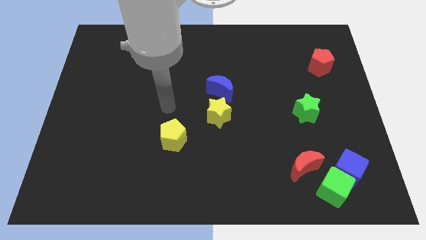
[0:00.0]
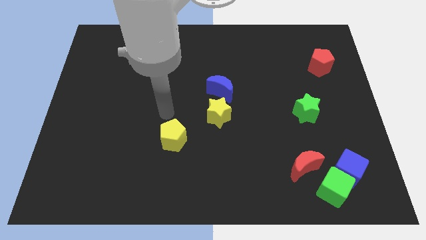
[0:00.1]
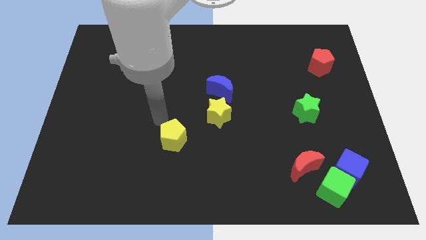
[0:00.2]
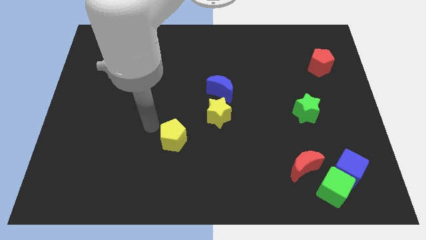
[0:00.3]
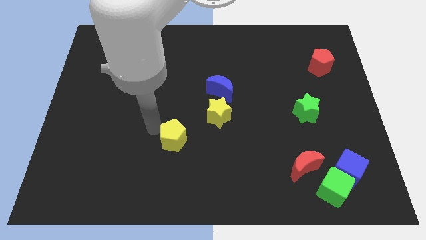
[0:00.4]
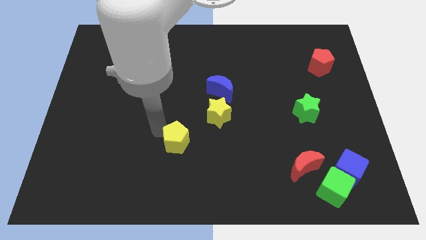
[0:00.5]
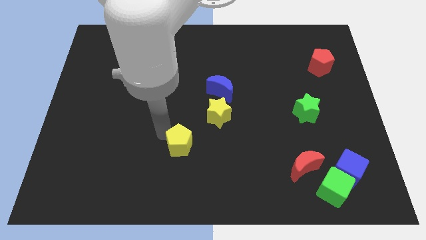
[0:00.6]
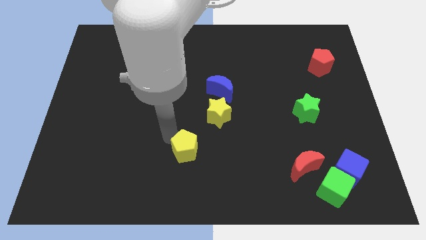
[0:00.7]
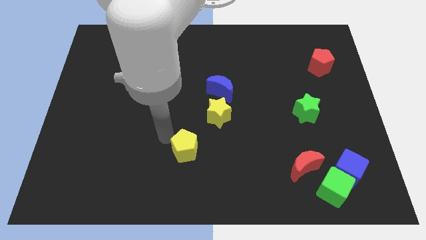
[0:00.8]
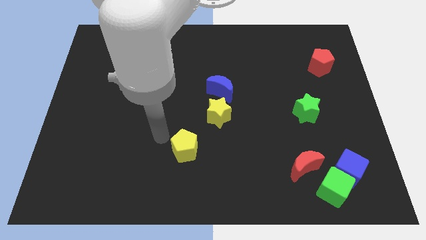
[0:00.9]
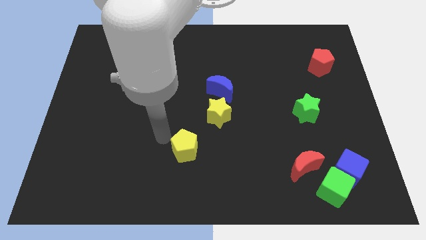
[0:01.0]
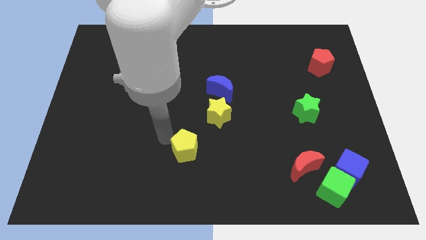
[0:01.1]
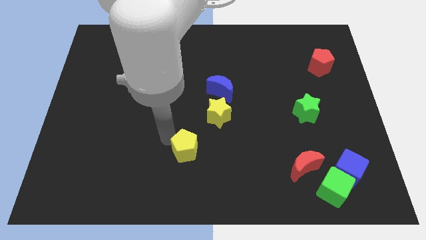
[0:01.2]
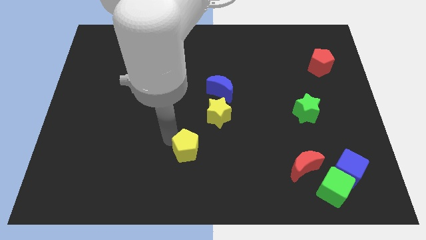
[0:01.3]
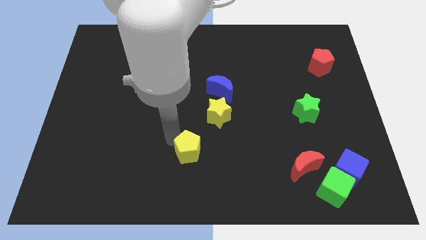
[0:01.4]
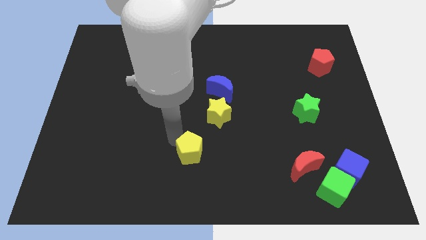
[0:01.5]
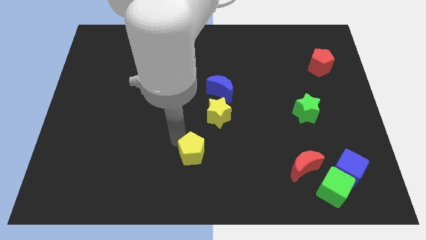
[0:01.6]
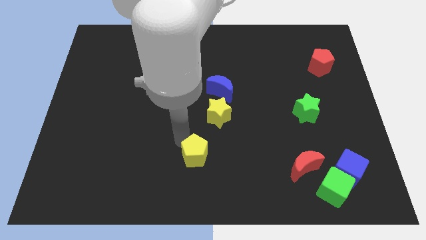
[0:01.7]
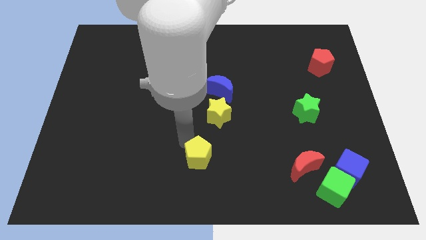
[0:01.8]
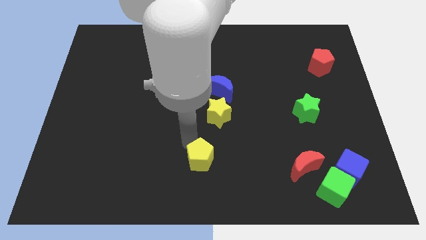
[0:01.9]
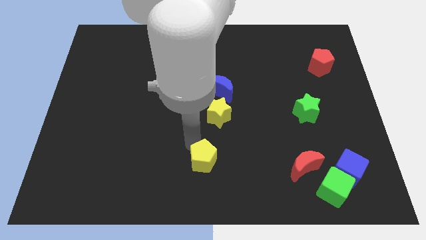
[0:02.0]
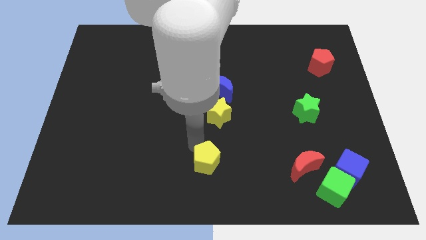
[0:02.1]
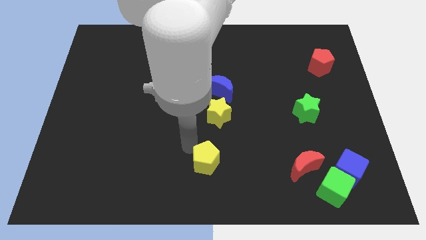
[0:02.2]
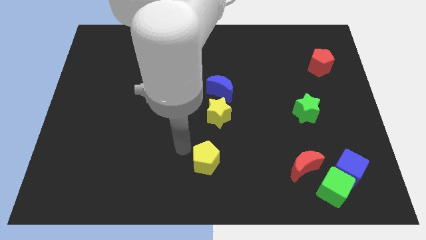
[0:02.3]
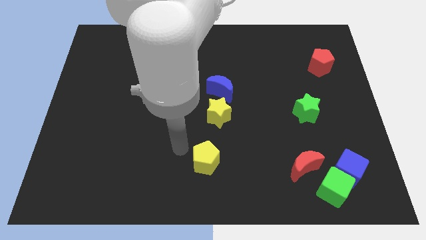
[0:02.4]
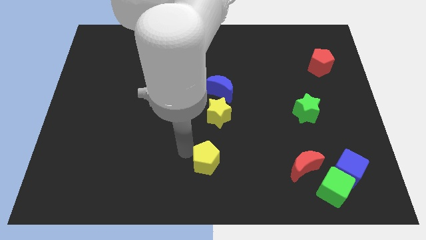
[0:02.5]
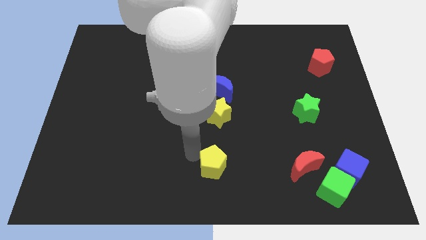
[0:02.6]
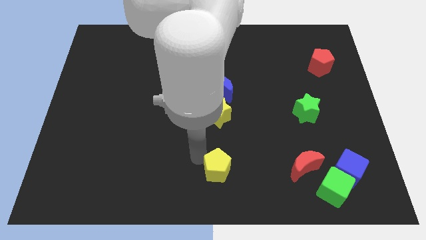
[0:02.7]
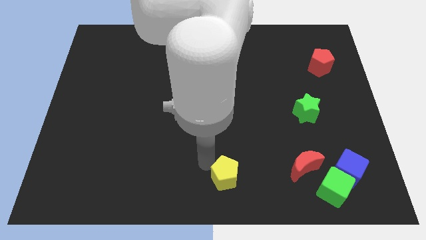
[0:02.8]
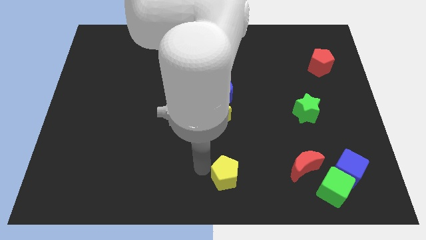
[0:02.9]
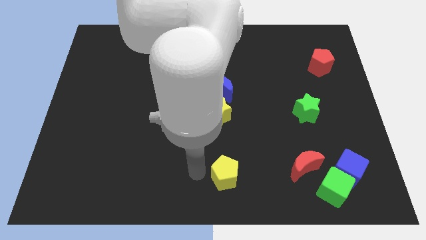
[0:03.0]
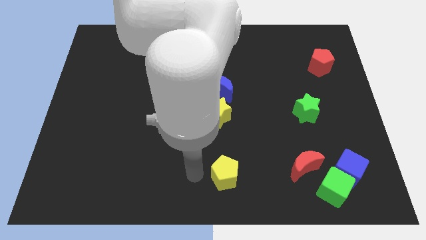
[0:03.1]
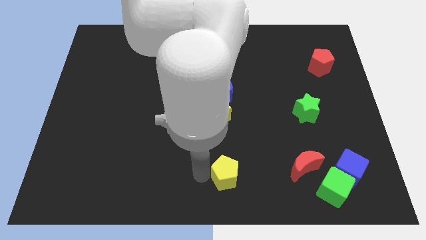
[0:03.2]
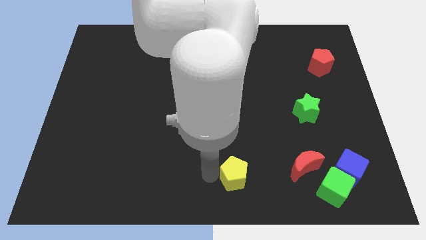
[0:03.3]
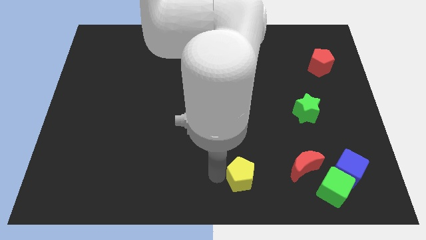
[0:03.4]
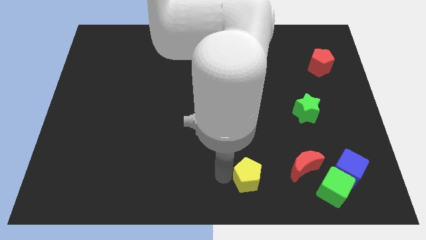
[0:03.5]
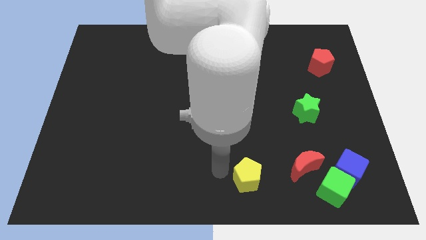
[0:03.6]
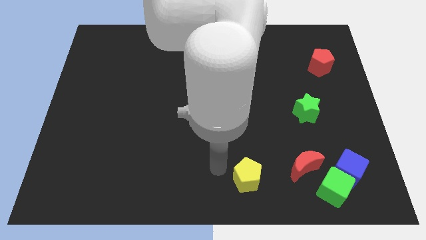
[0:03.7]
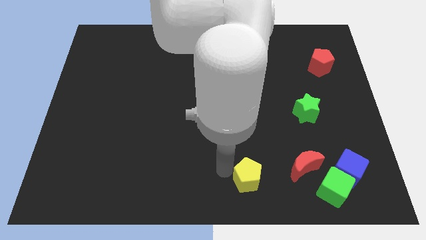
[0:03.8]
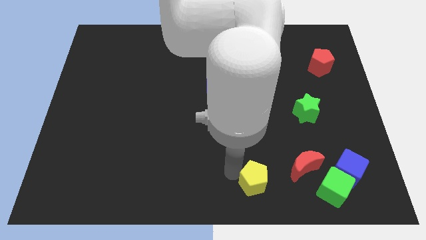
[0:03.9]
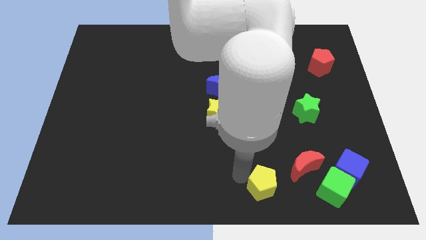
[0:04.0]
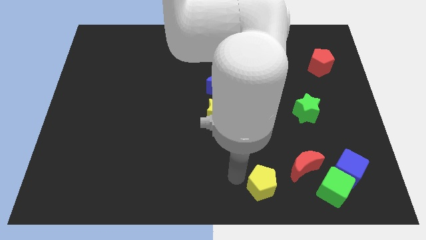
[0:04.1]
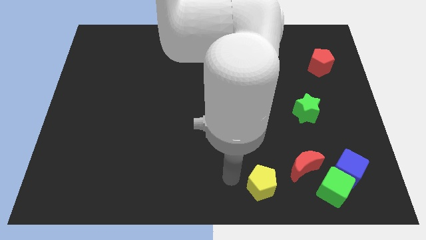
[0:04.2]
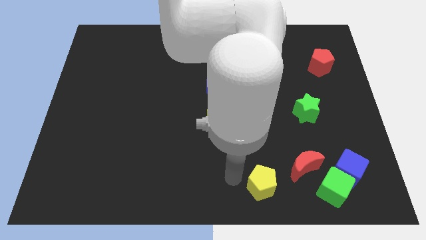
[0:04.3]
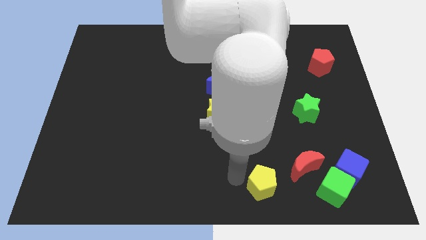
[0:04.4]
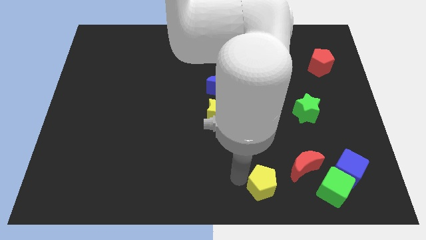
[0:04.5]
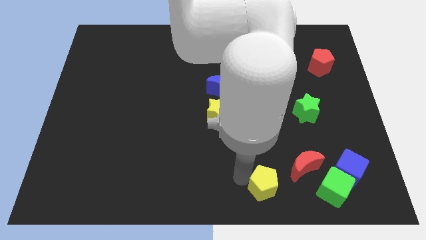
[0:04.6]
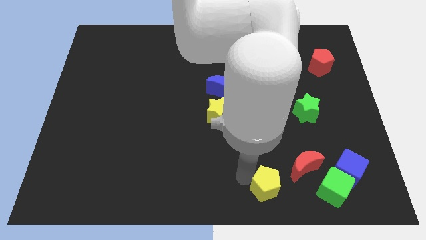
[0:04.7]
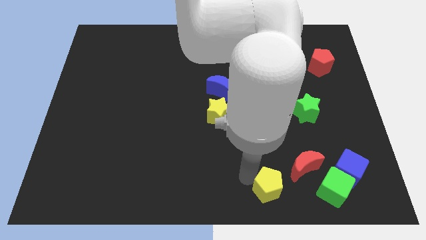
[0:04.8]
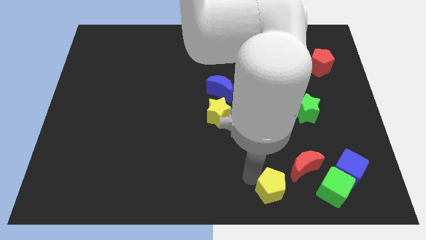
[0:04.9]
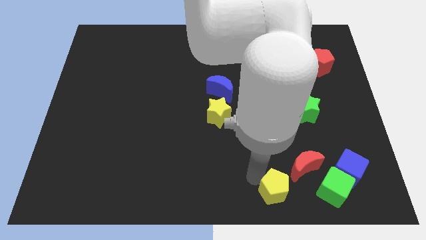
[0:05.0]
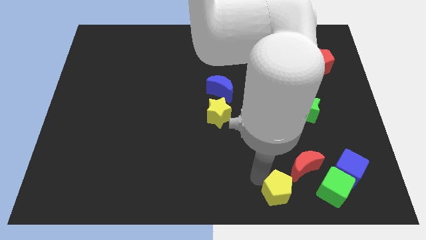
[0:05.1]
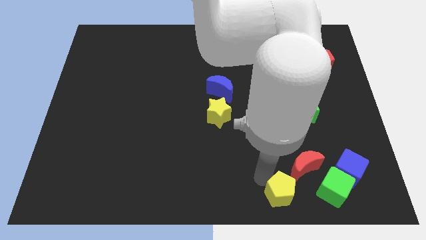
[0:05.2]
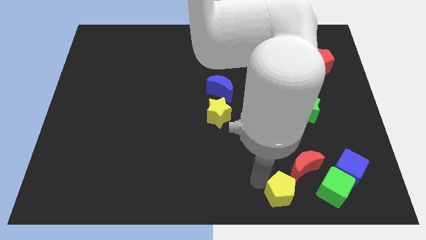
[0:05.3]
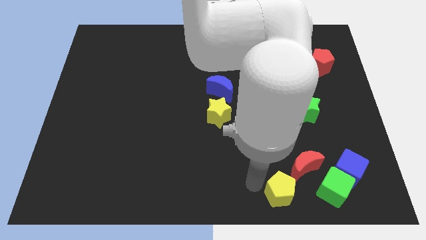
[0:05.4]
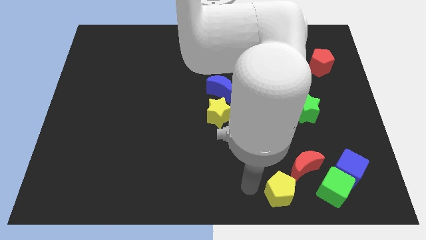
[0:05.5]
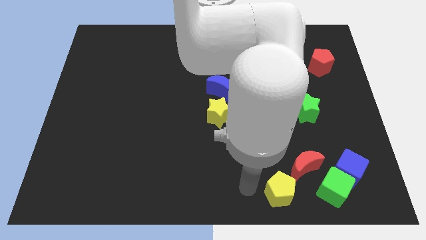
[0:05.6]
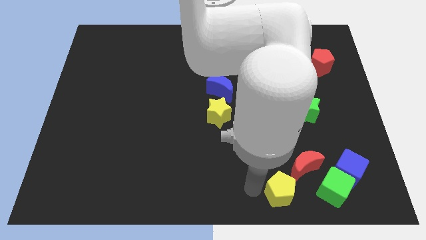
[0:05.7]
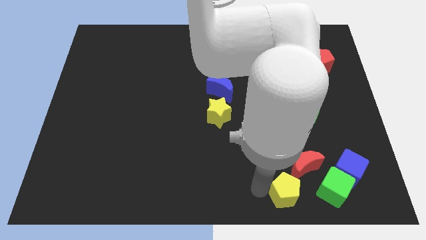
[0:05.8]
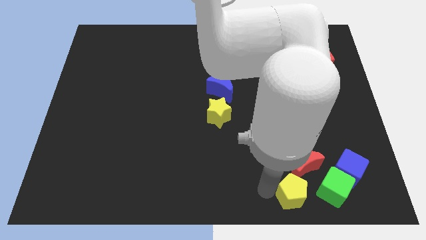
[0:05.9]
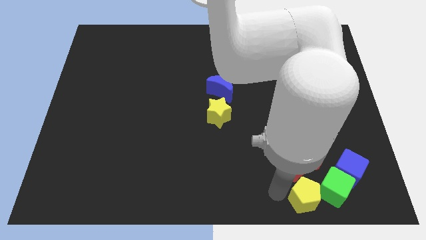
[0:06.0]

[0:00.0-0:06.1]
push the yellow pentagon close to the green cube
